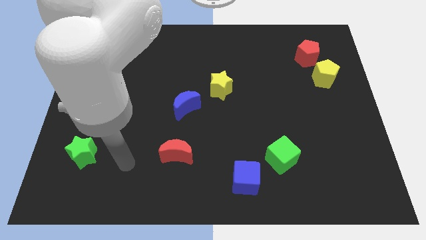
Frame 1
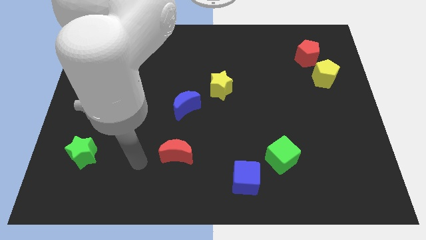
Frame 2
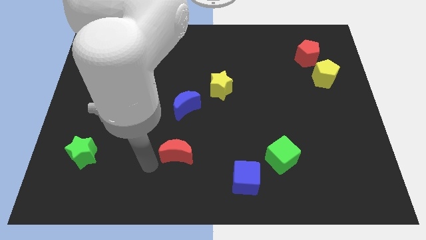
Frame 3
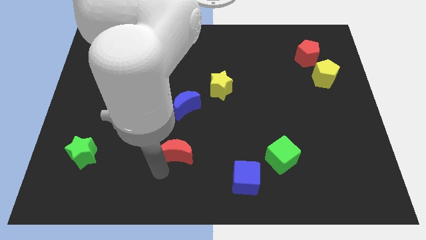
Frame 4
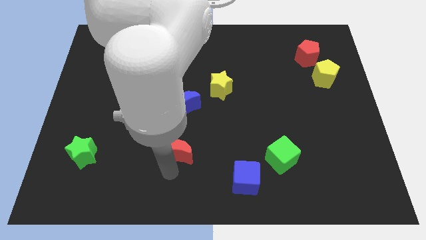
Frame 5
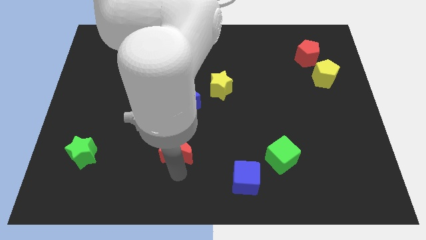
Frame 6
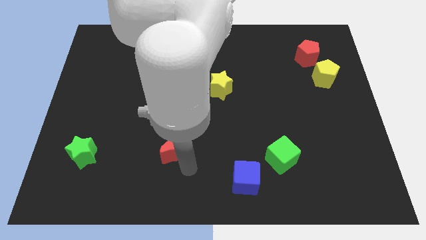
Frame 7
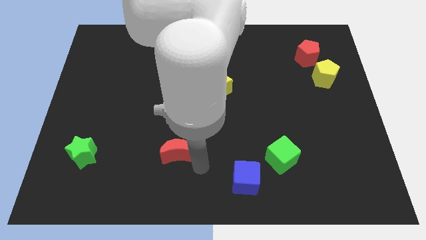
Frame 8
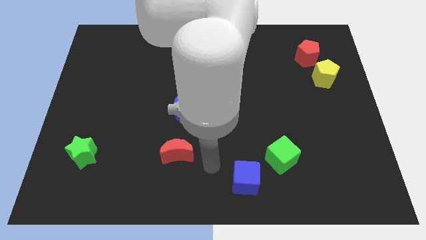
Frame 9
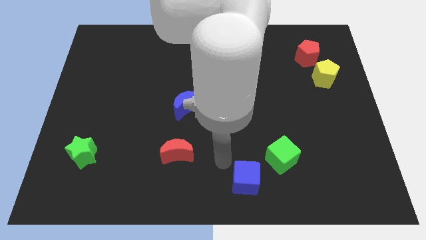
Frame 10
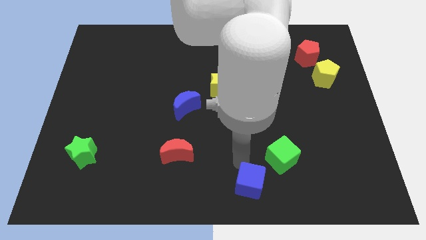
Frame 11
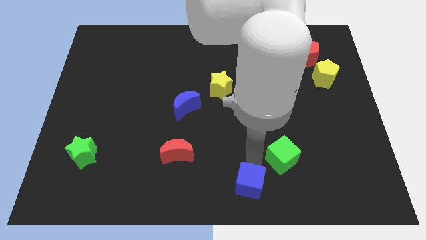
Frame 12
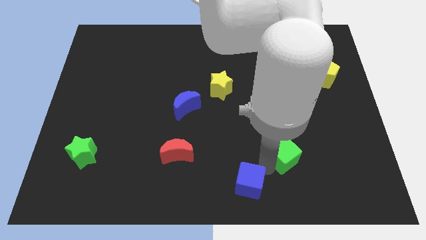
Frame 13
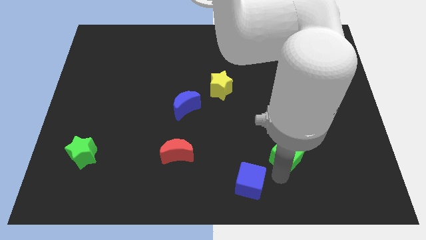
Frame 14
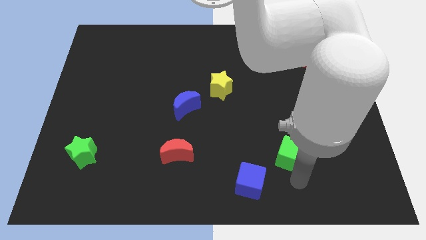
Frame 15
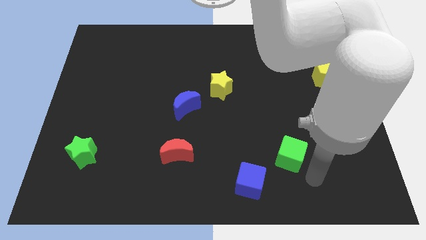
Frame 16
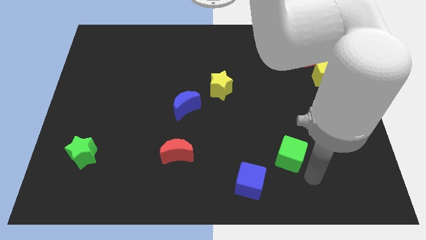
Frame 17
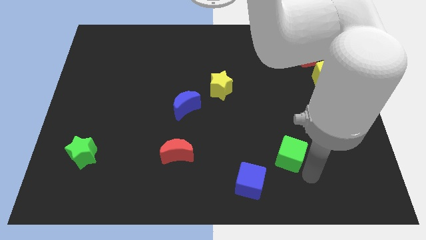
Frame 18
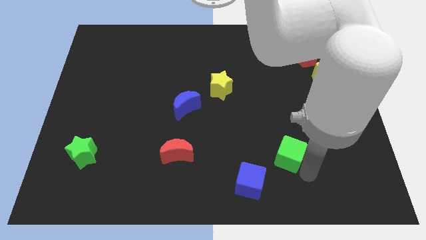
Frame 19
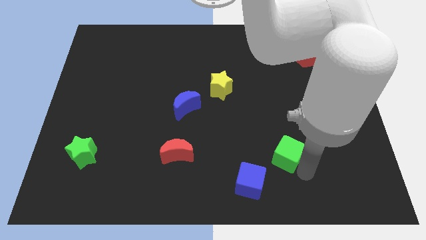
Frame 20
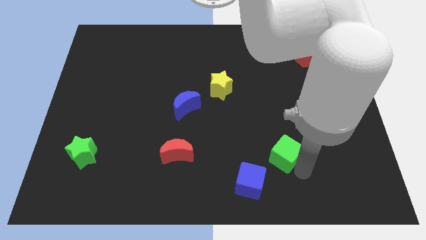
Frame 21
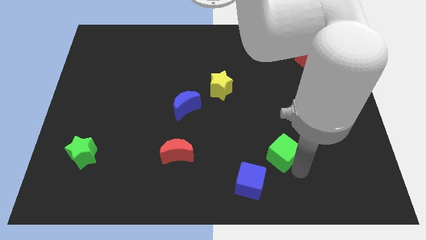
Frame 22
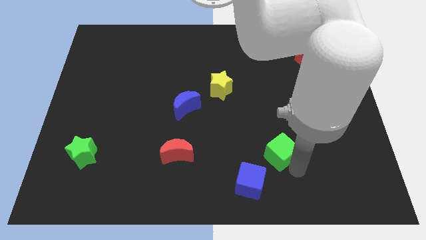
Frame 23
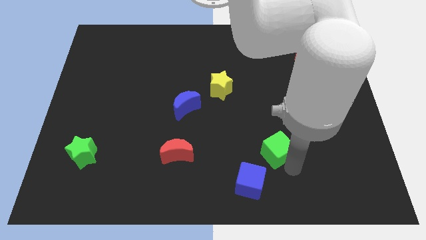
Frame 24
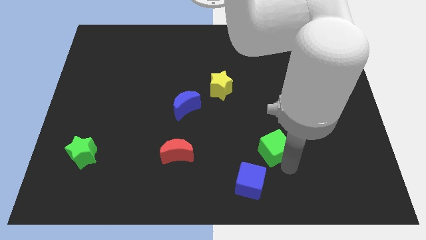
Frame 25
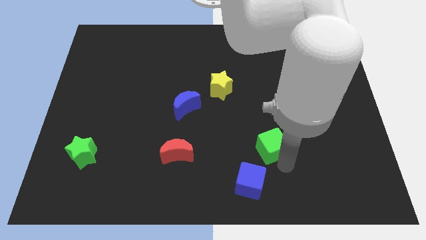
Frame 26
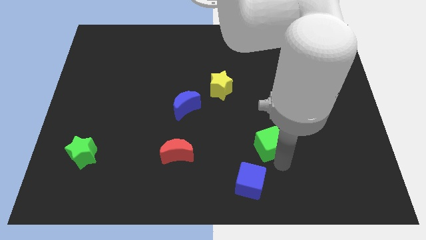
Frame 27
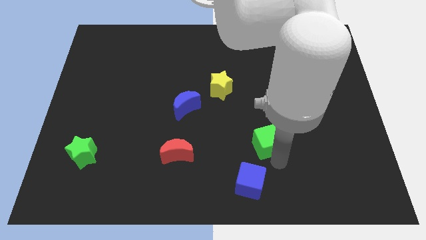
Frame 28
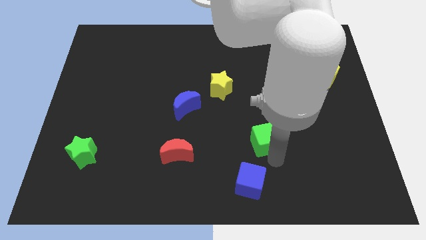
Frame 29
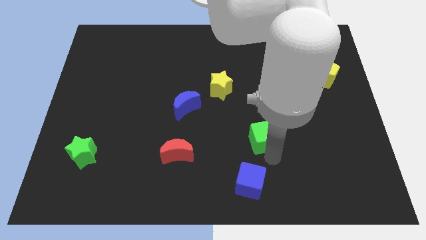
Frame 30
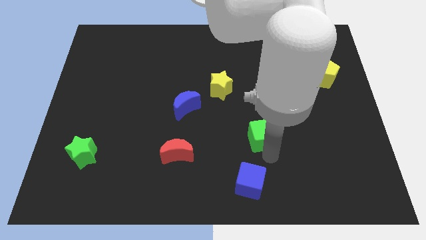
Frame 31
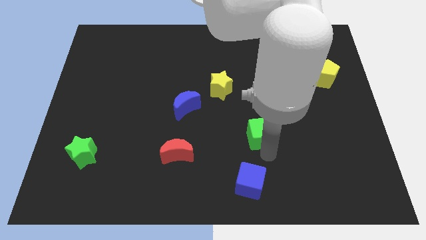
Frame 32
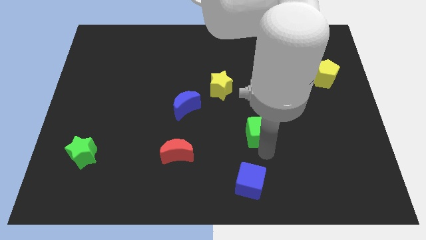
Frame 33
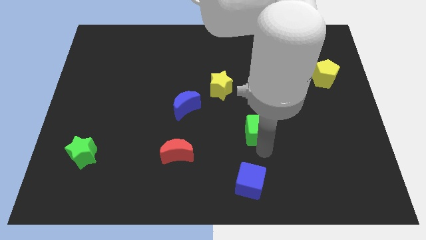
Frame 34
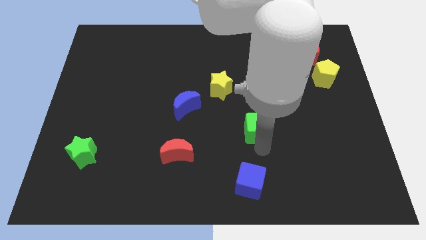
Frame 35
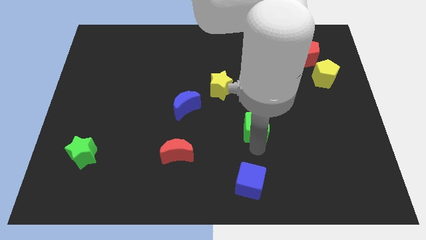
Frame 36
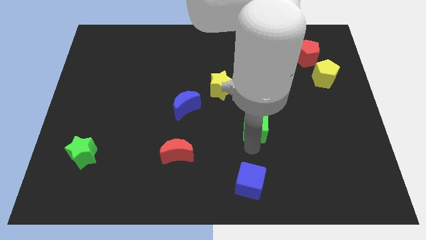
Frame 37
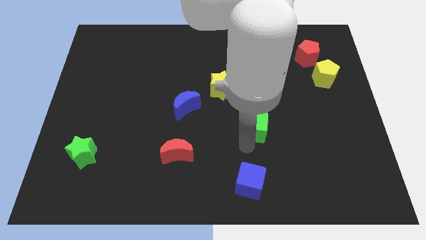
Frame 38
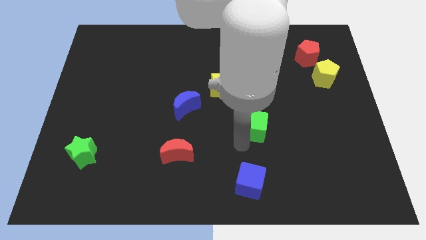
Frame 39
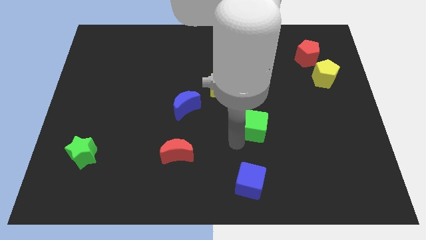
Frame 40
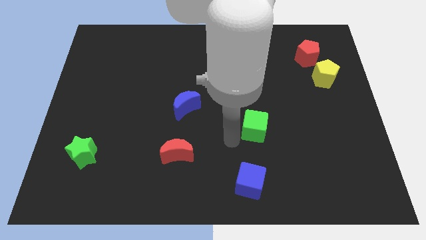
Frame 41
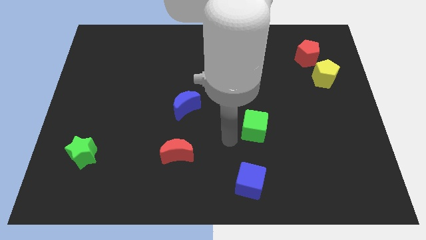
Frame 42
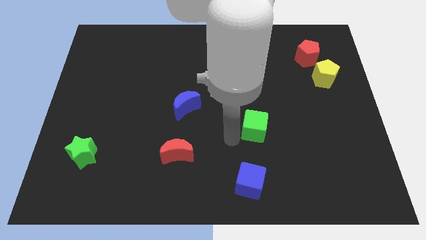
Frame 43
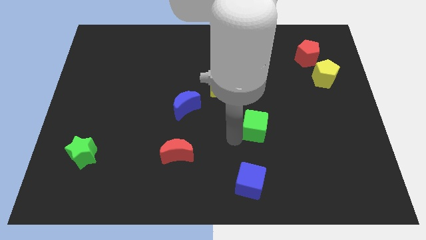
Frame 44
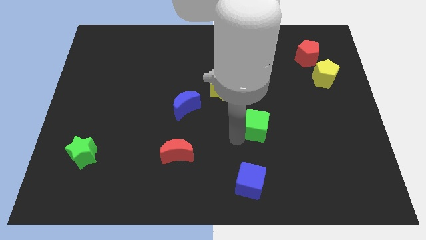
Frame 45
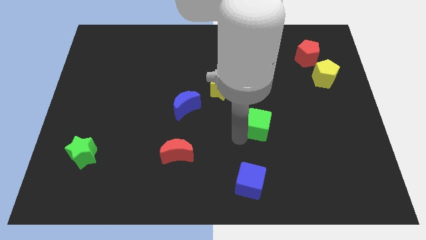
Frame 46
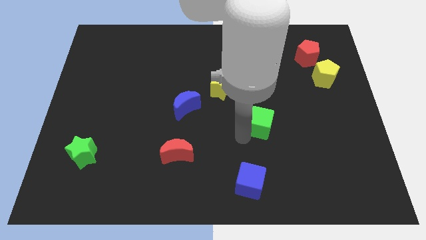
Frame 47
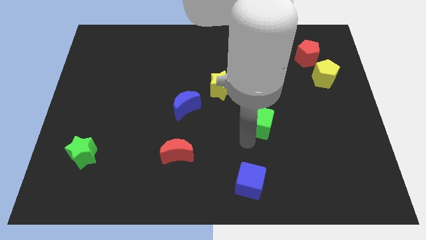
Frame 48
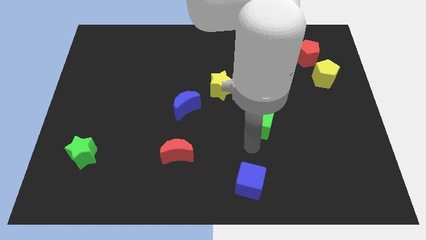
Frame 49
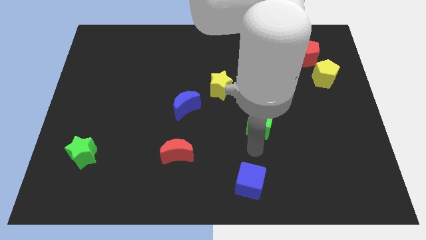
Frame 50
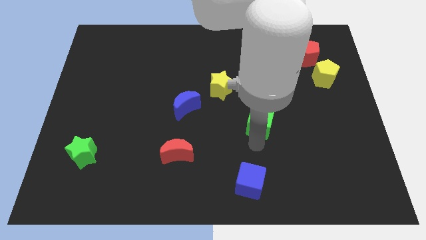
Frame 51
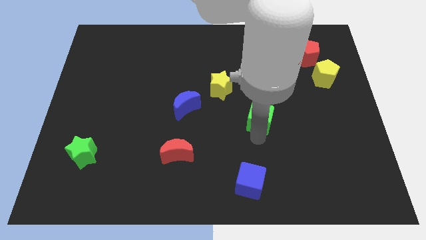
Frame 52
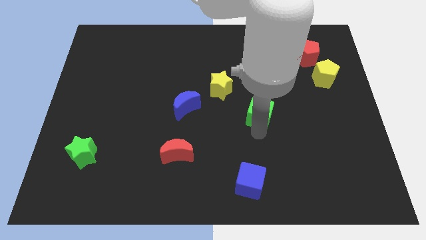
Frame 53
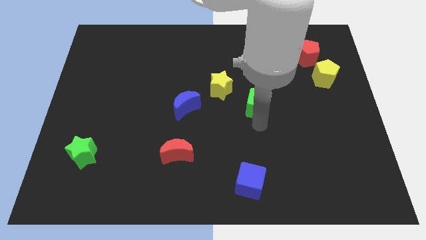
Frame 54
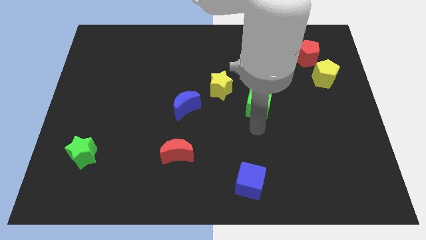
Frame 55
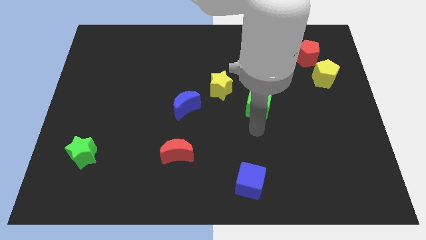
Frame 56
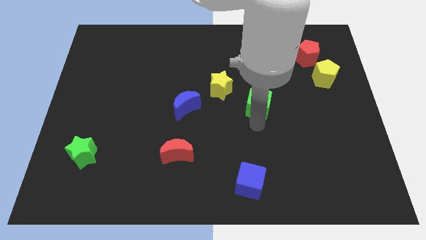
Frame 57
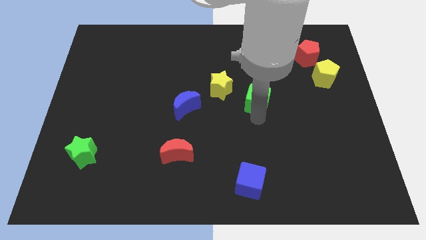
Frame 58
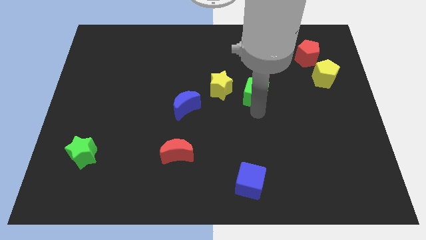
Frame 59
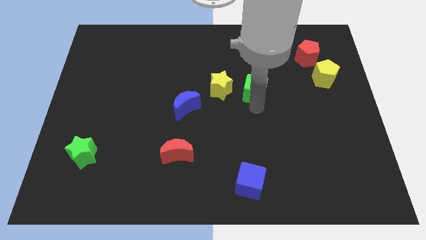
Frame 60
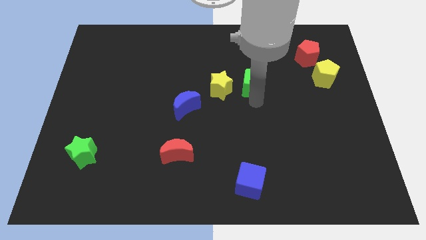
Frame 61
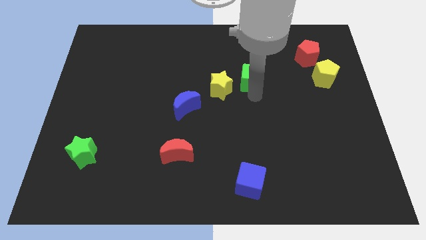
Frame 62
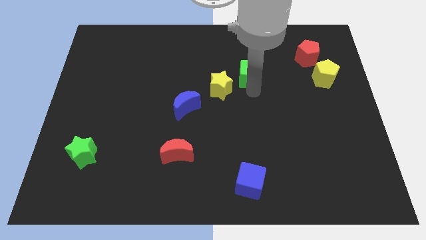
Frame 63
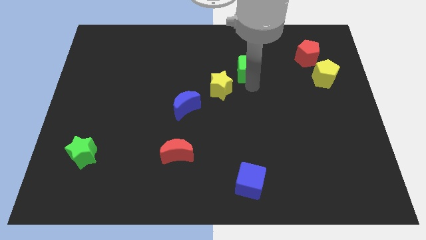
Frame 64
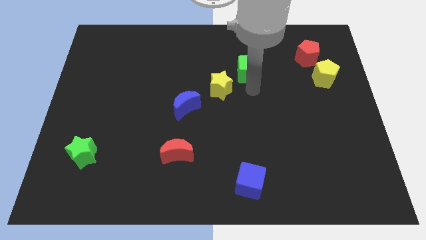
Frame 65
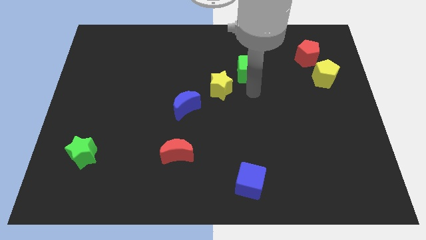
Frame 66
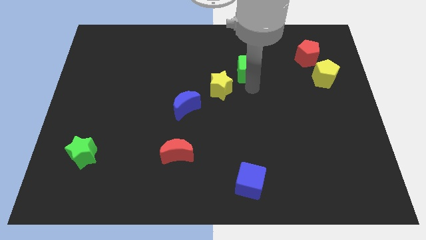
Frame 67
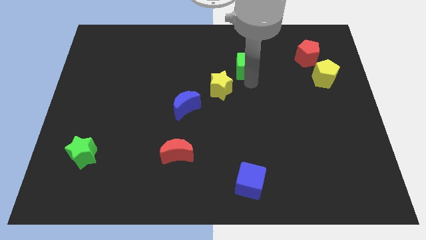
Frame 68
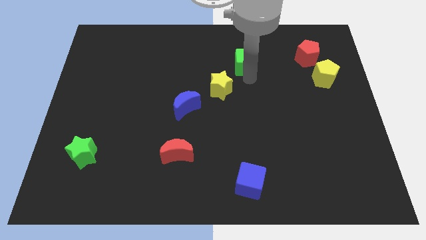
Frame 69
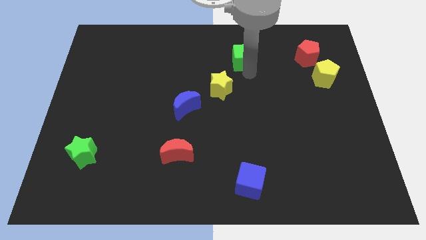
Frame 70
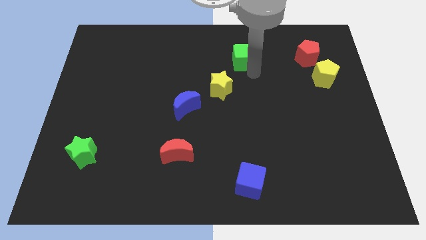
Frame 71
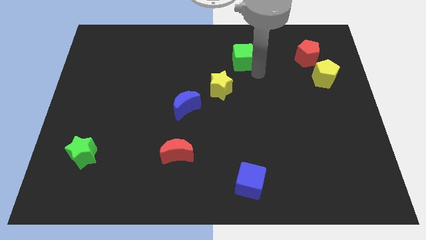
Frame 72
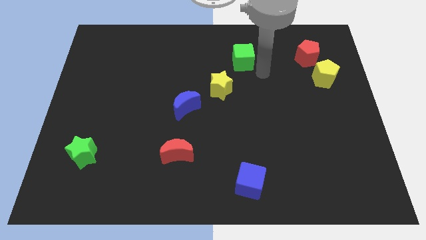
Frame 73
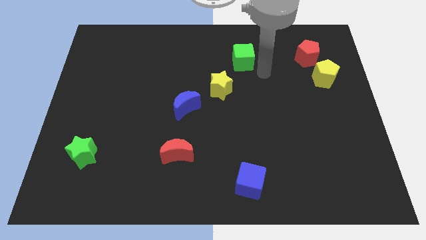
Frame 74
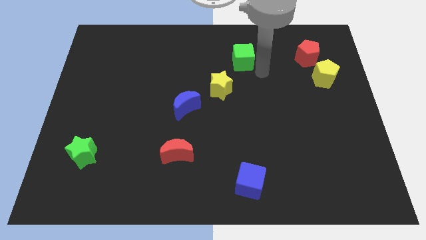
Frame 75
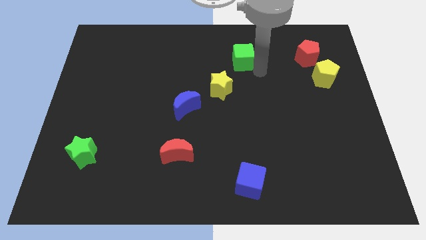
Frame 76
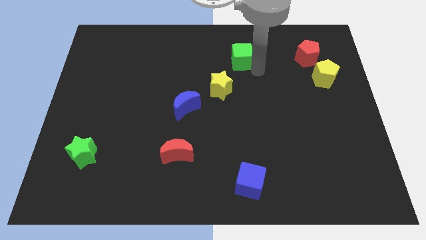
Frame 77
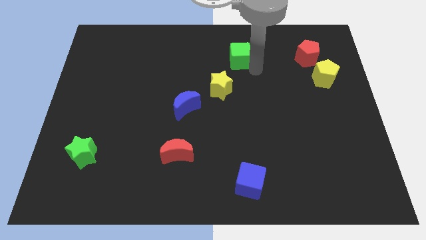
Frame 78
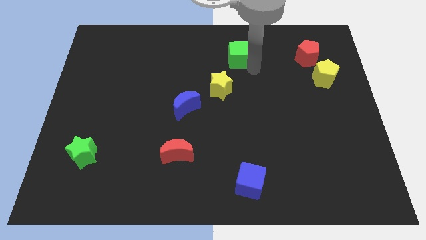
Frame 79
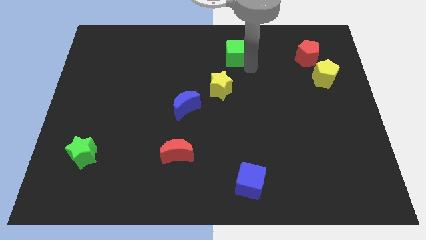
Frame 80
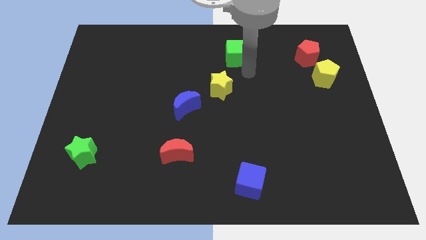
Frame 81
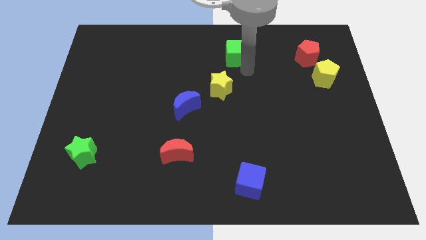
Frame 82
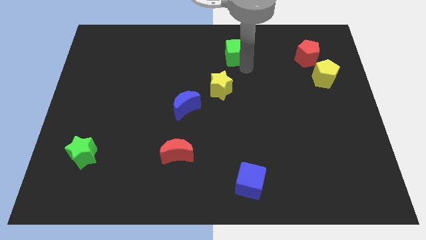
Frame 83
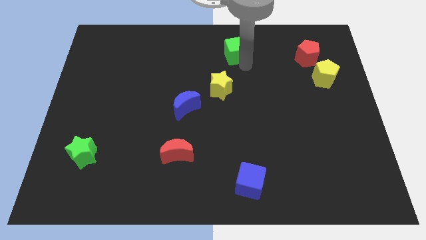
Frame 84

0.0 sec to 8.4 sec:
slide the green cube to the top side
